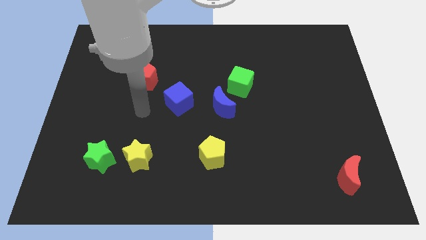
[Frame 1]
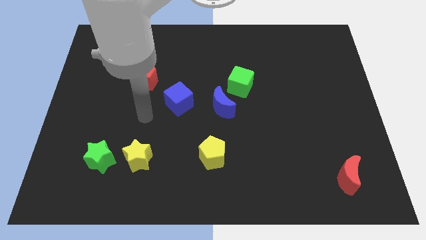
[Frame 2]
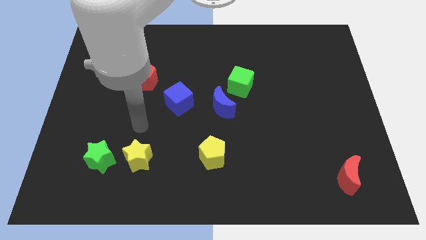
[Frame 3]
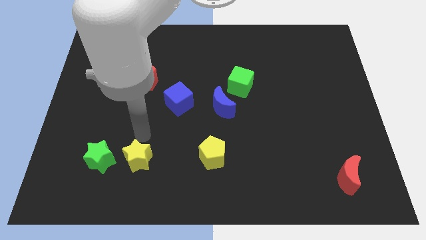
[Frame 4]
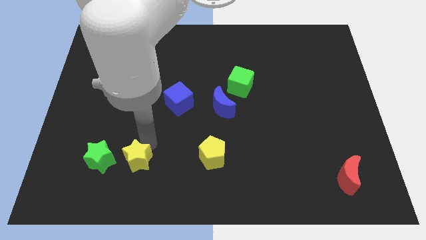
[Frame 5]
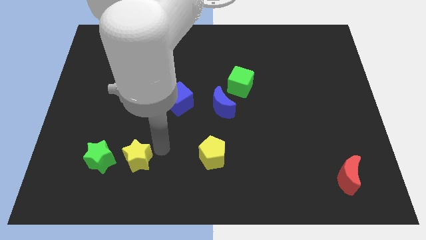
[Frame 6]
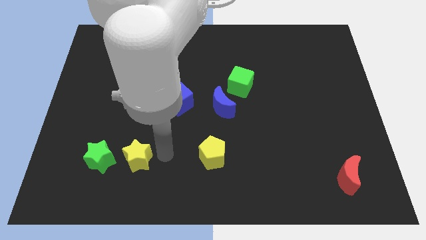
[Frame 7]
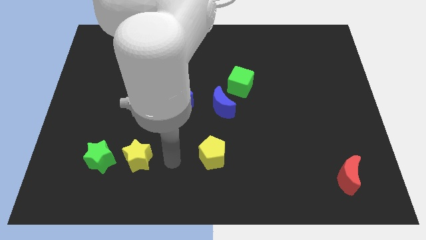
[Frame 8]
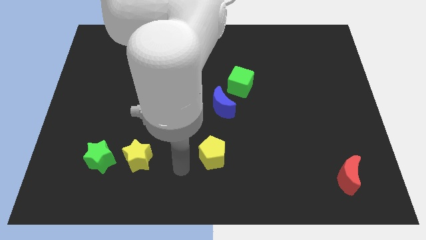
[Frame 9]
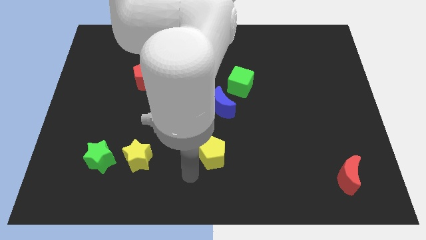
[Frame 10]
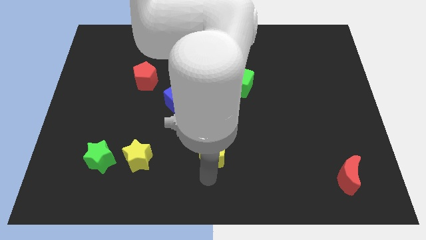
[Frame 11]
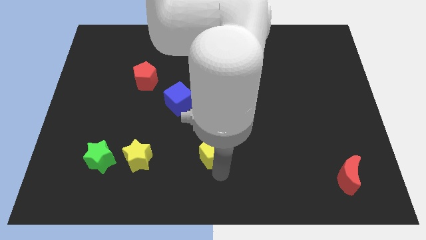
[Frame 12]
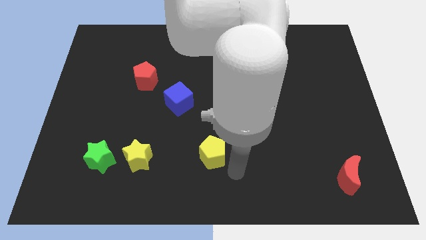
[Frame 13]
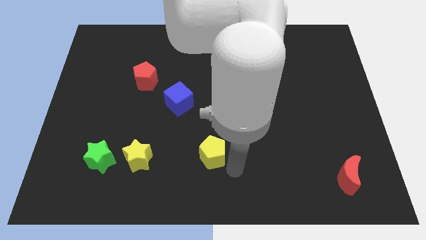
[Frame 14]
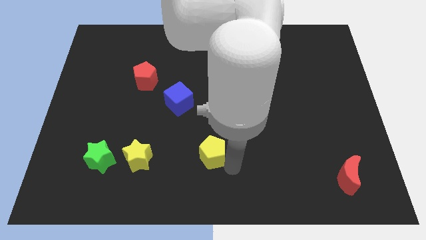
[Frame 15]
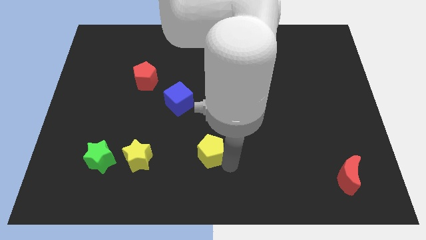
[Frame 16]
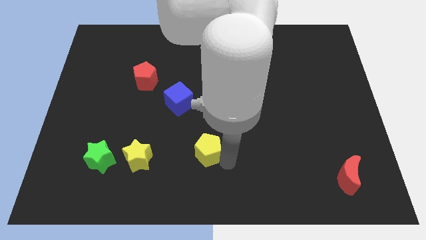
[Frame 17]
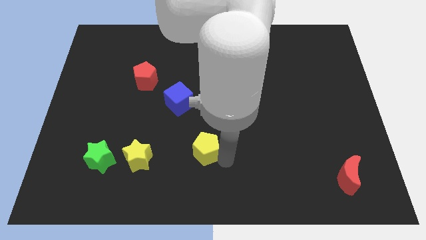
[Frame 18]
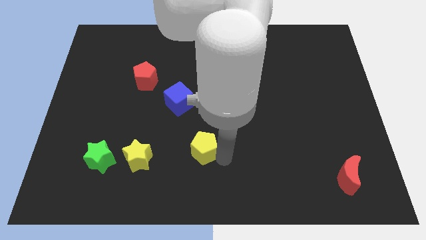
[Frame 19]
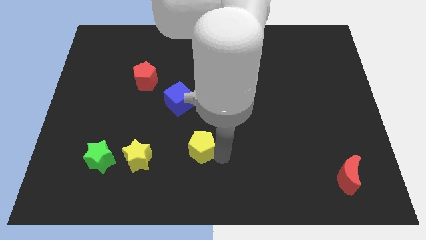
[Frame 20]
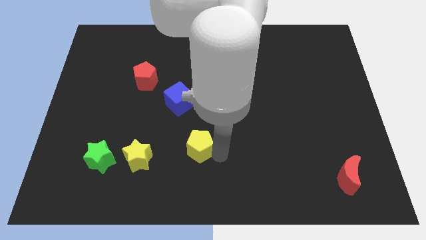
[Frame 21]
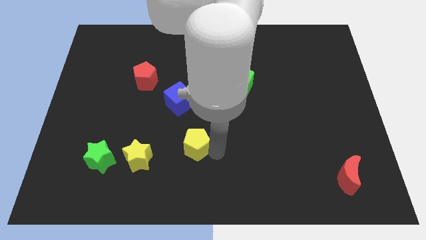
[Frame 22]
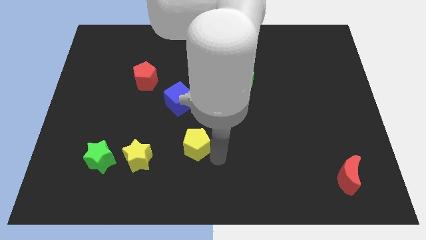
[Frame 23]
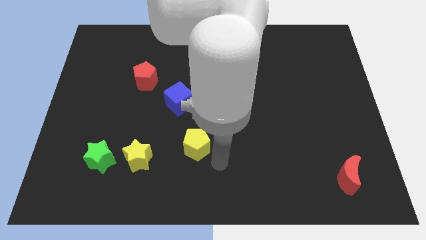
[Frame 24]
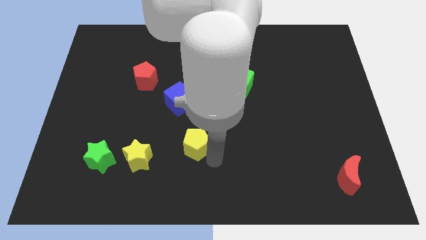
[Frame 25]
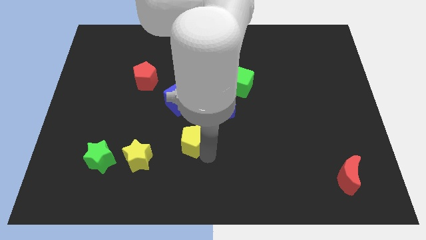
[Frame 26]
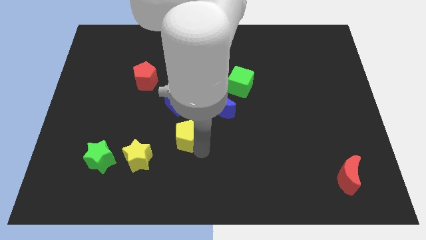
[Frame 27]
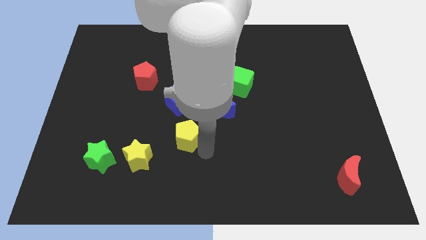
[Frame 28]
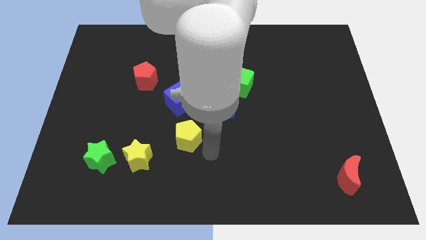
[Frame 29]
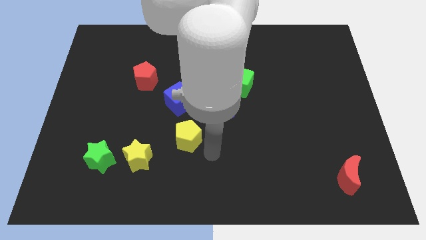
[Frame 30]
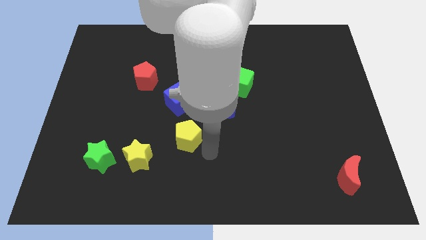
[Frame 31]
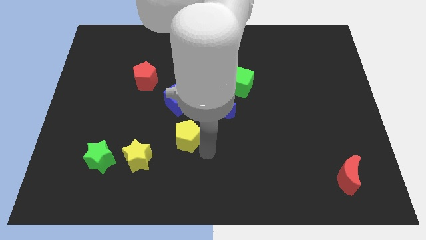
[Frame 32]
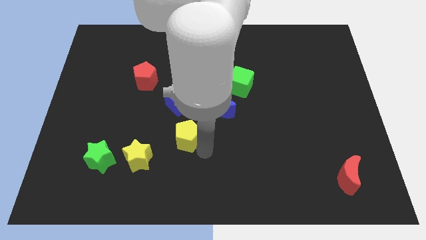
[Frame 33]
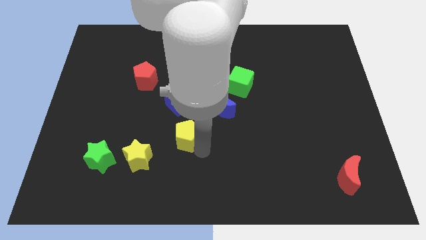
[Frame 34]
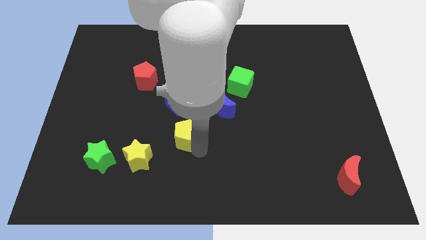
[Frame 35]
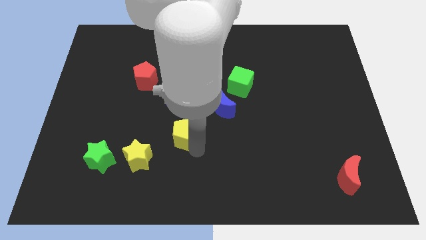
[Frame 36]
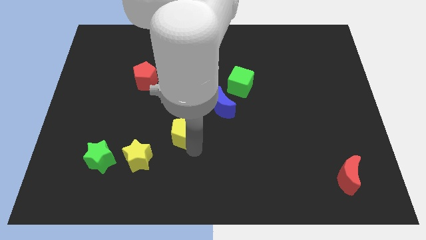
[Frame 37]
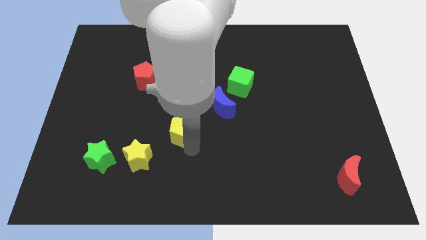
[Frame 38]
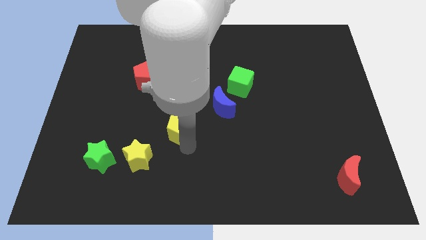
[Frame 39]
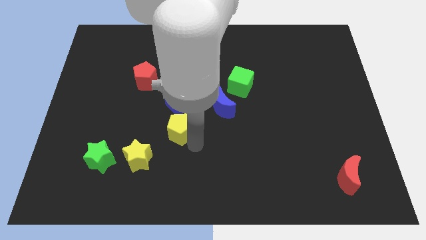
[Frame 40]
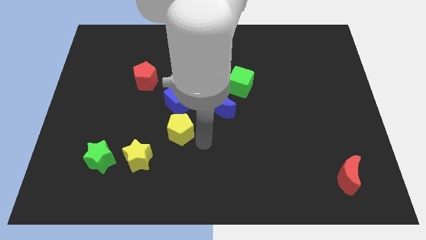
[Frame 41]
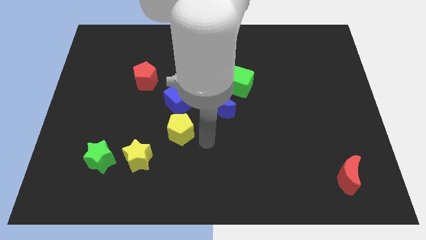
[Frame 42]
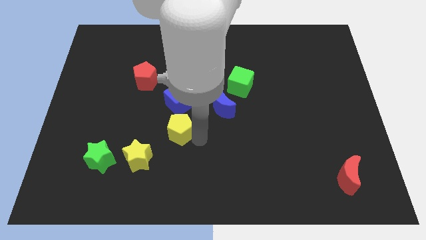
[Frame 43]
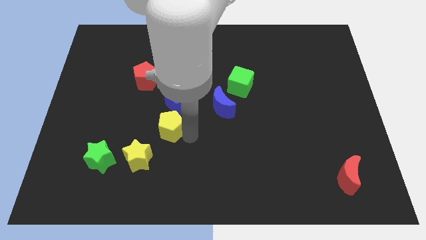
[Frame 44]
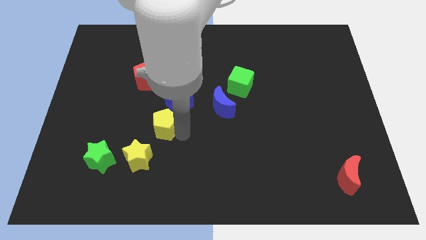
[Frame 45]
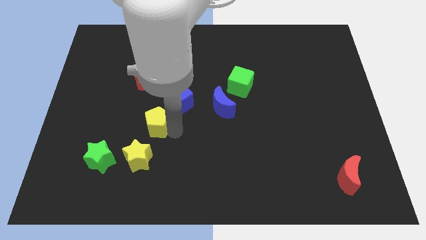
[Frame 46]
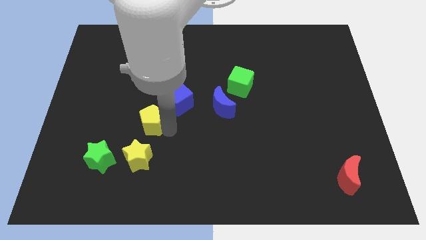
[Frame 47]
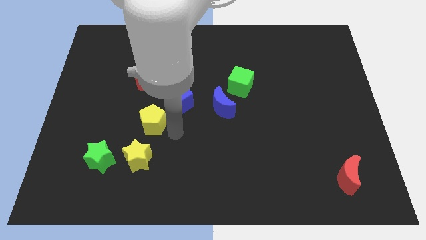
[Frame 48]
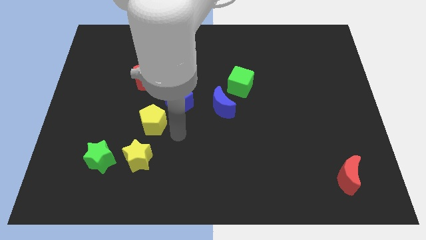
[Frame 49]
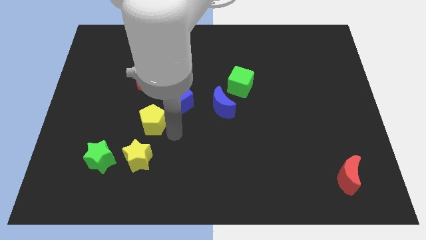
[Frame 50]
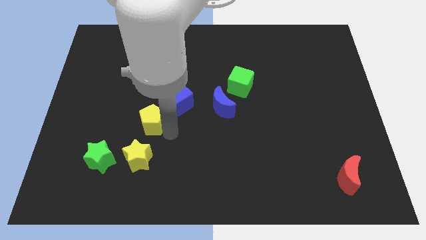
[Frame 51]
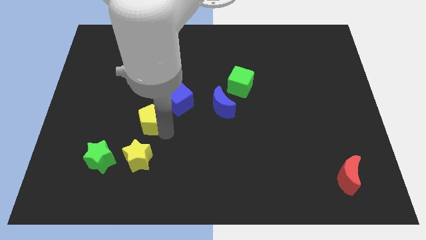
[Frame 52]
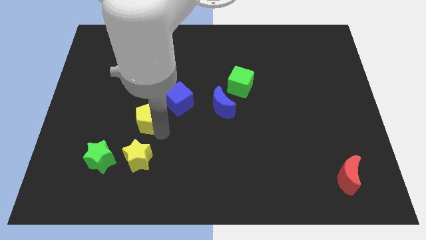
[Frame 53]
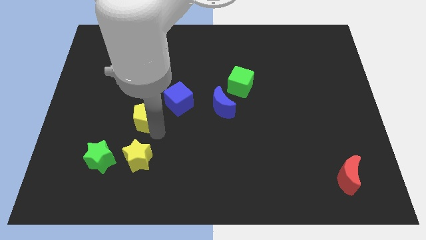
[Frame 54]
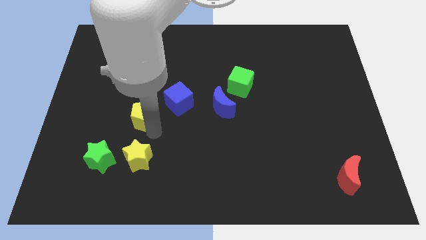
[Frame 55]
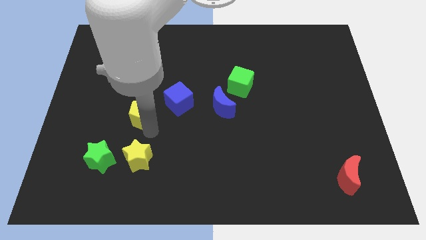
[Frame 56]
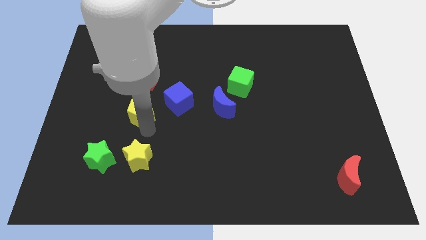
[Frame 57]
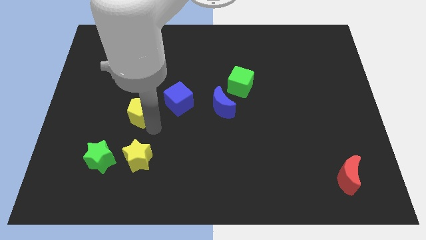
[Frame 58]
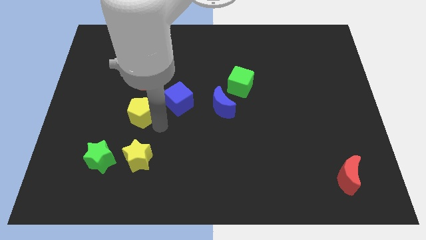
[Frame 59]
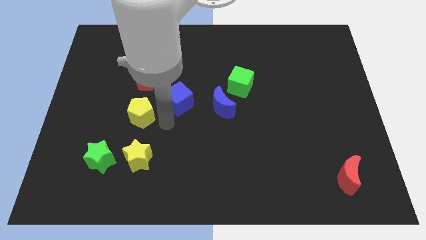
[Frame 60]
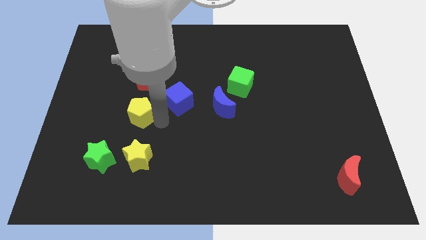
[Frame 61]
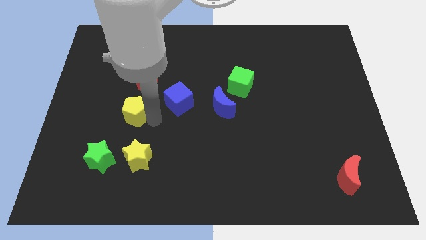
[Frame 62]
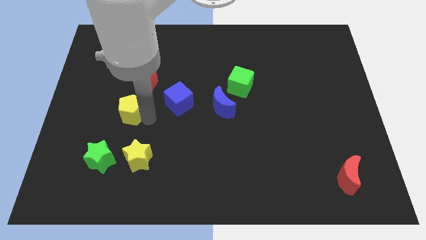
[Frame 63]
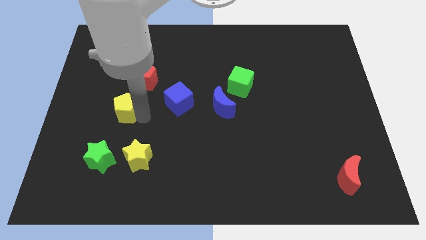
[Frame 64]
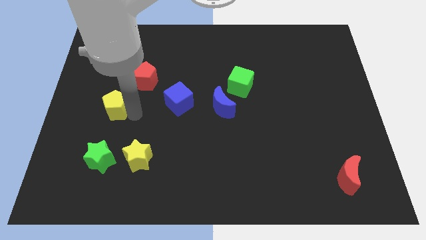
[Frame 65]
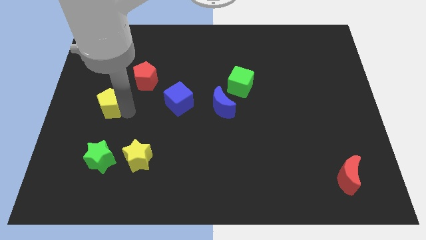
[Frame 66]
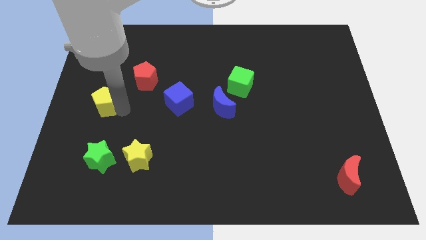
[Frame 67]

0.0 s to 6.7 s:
slide the yellow pentagon to the left side
